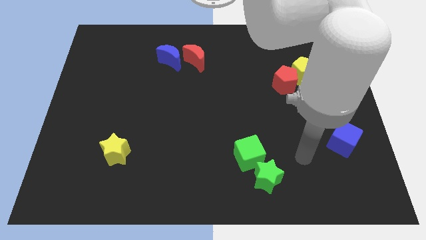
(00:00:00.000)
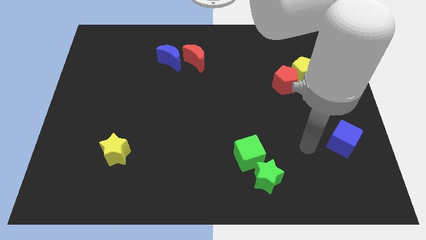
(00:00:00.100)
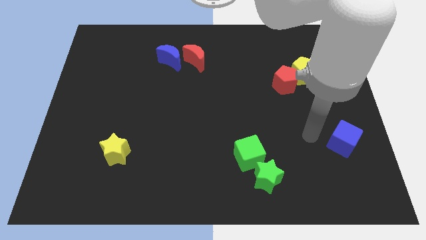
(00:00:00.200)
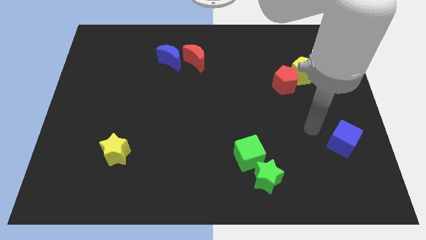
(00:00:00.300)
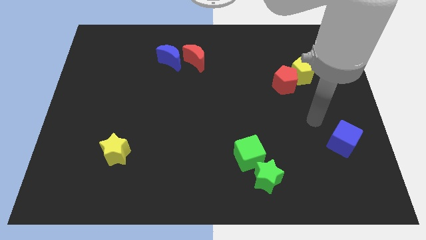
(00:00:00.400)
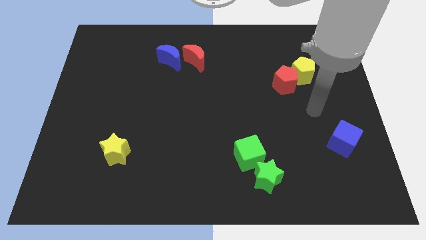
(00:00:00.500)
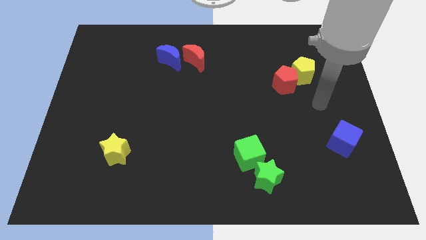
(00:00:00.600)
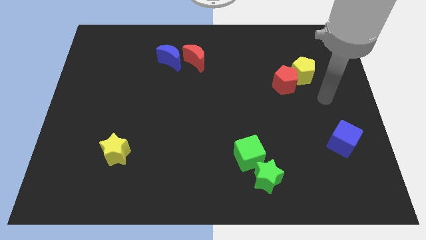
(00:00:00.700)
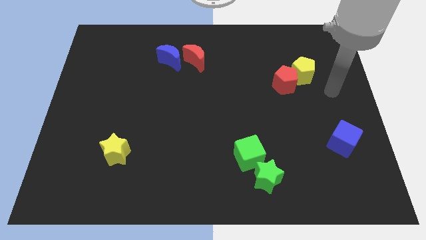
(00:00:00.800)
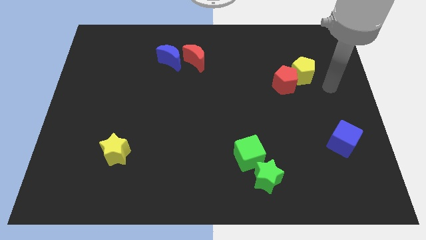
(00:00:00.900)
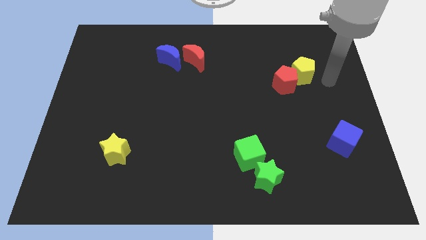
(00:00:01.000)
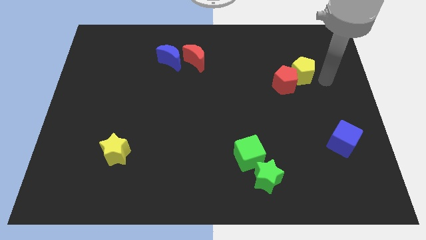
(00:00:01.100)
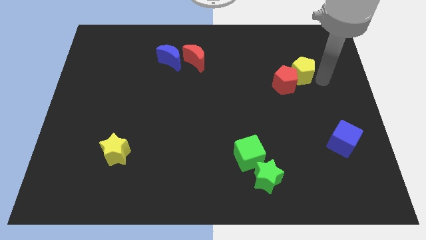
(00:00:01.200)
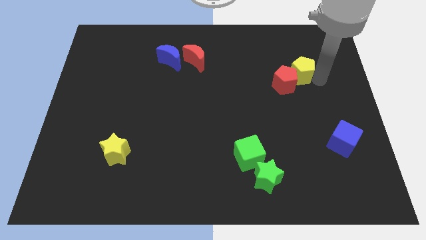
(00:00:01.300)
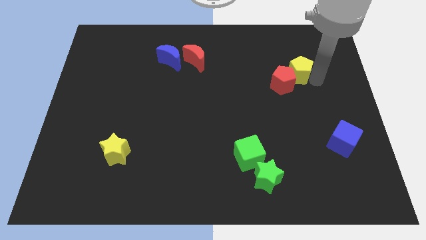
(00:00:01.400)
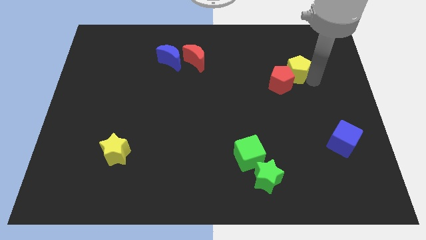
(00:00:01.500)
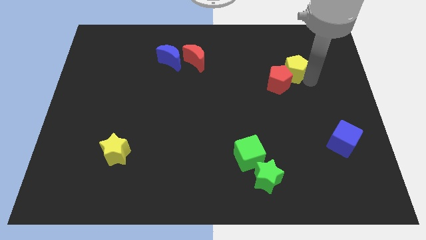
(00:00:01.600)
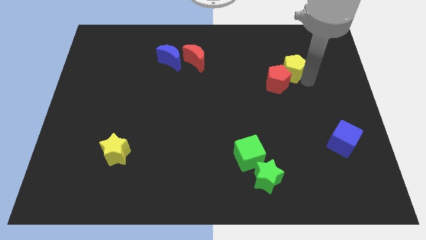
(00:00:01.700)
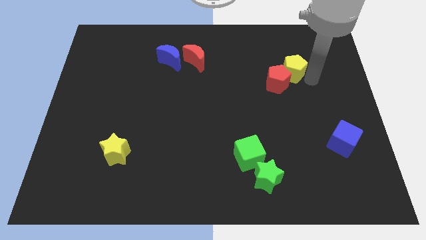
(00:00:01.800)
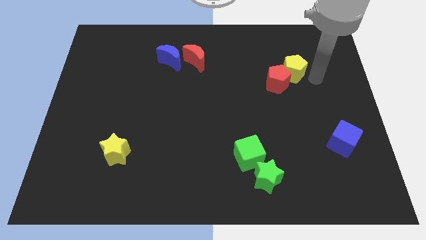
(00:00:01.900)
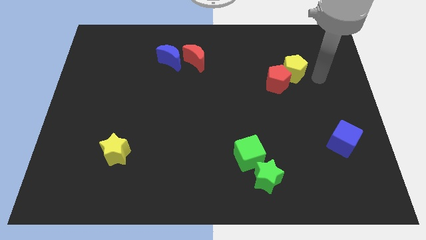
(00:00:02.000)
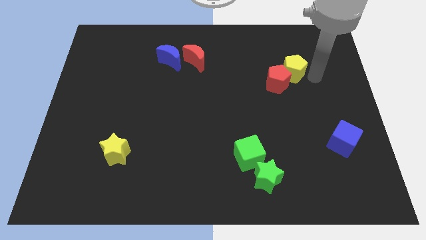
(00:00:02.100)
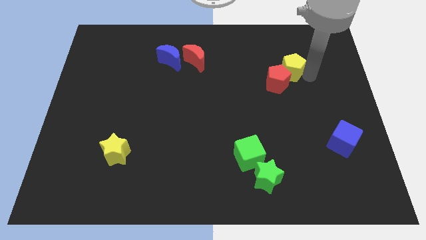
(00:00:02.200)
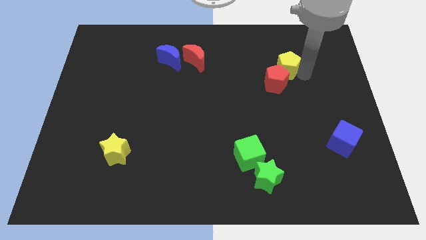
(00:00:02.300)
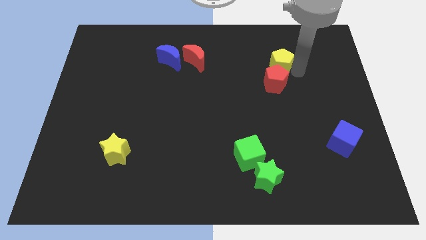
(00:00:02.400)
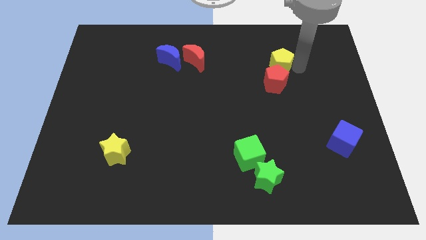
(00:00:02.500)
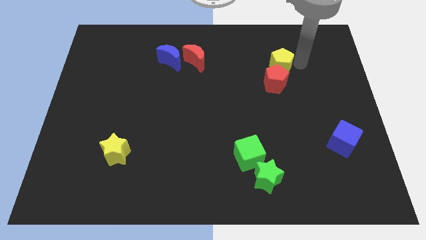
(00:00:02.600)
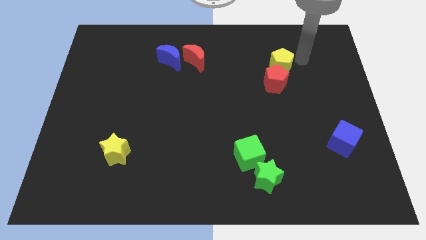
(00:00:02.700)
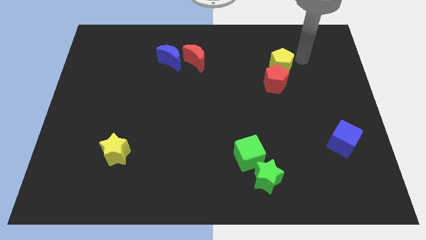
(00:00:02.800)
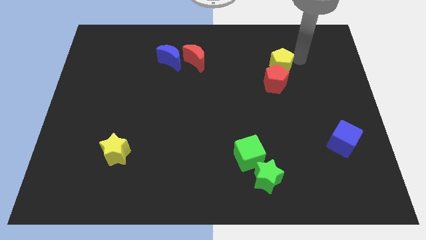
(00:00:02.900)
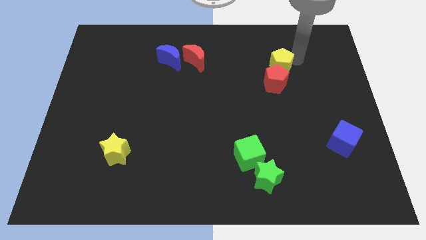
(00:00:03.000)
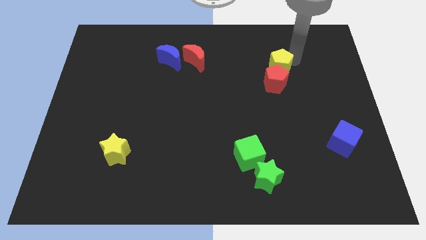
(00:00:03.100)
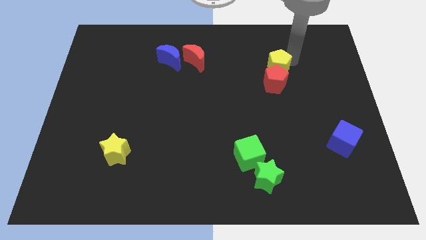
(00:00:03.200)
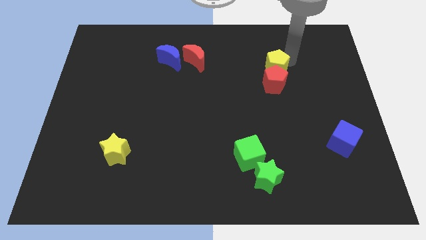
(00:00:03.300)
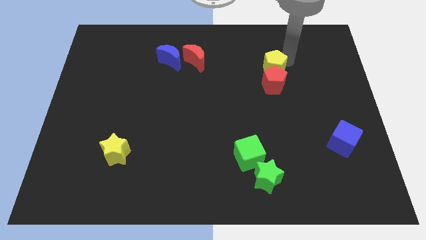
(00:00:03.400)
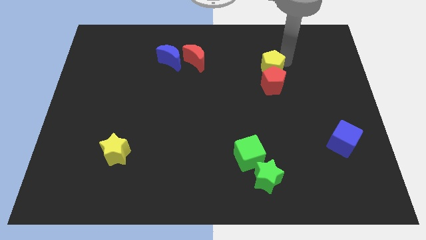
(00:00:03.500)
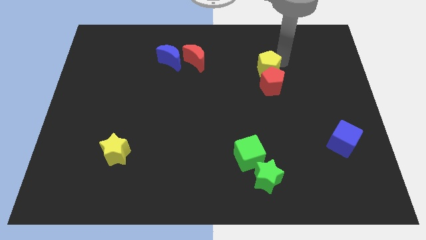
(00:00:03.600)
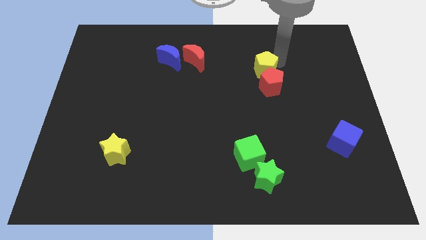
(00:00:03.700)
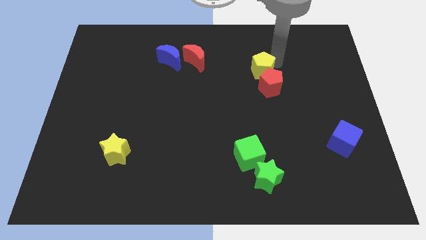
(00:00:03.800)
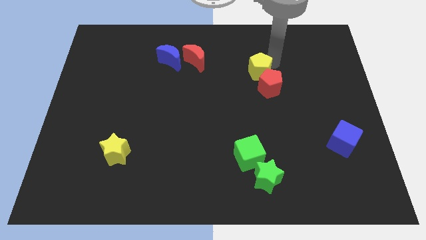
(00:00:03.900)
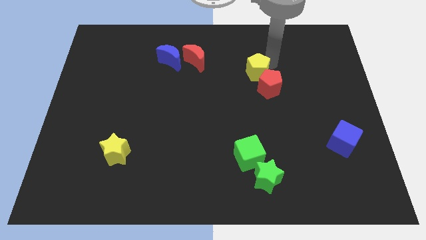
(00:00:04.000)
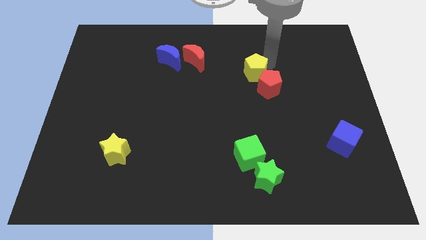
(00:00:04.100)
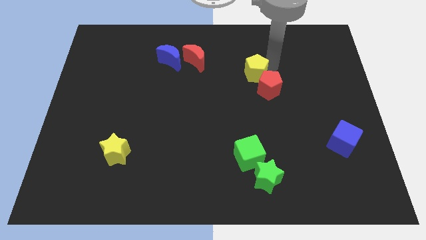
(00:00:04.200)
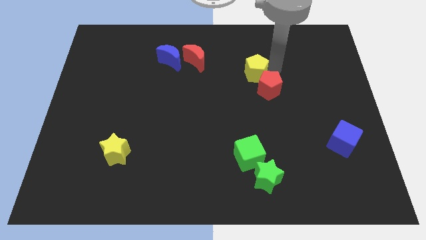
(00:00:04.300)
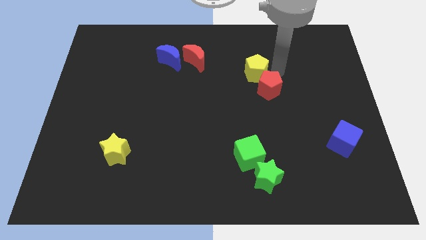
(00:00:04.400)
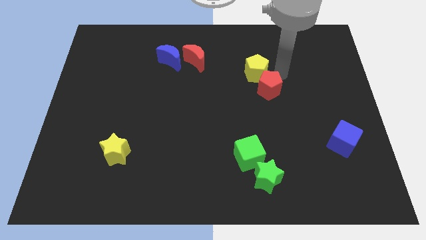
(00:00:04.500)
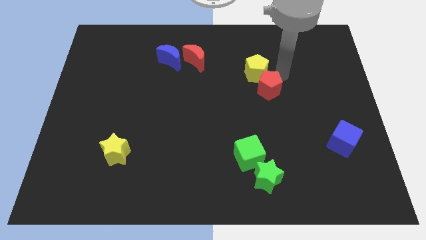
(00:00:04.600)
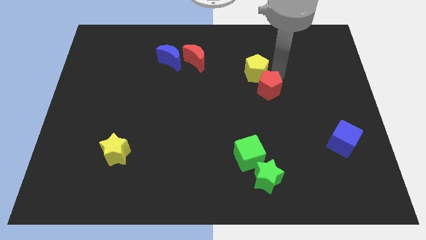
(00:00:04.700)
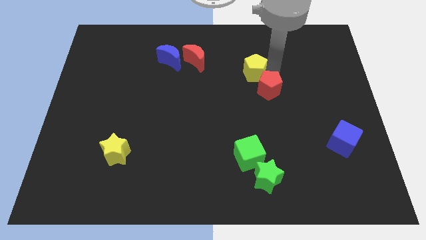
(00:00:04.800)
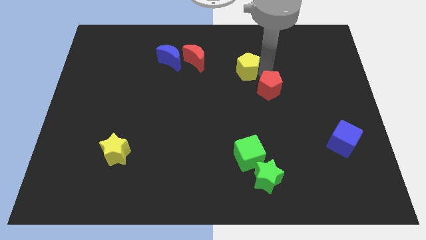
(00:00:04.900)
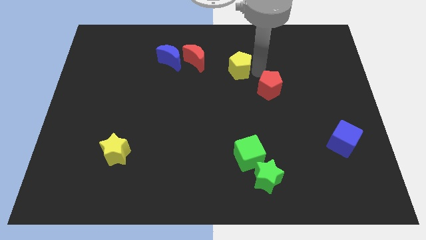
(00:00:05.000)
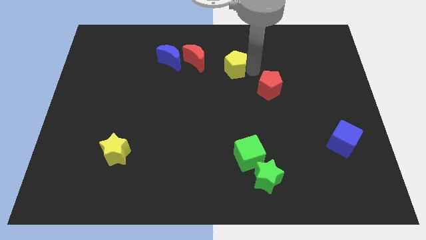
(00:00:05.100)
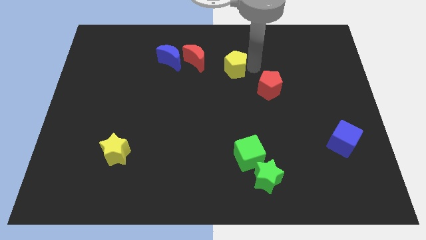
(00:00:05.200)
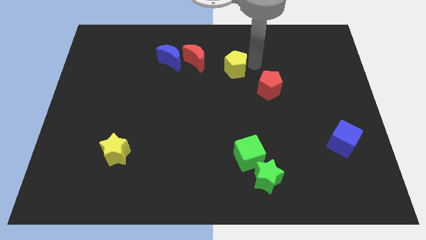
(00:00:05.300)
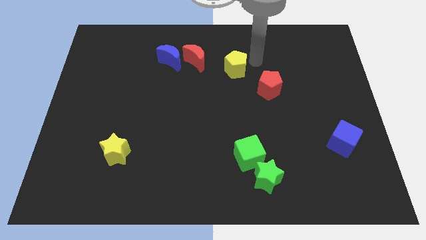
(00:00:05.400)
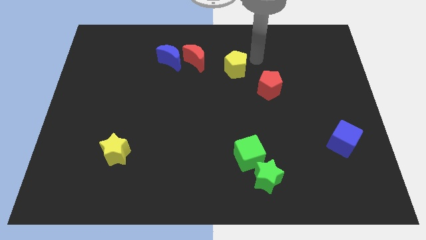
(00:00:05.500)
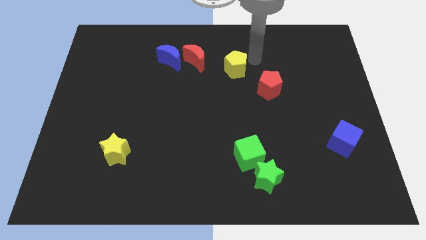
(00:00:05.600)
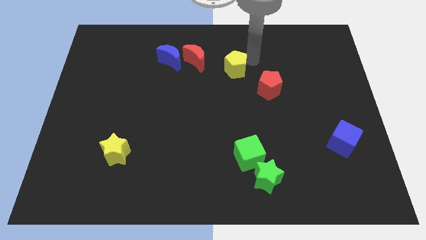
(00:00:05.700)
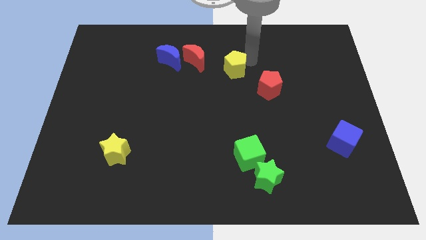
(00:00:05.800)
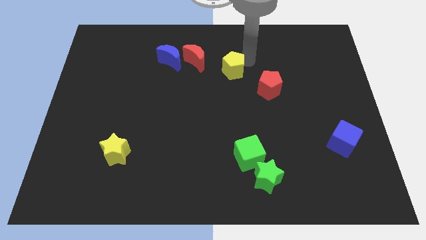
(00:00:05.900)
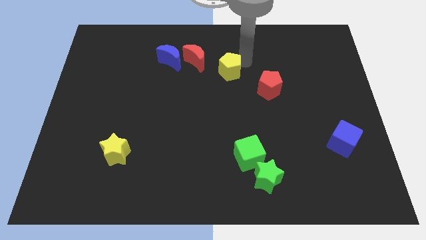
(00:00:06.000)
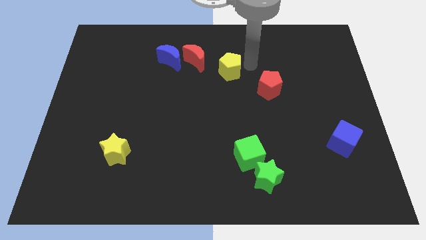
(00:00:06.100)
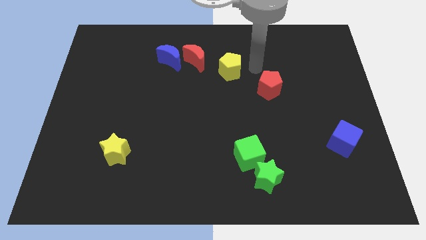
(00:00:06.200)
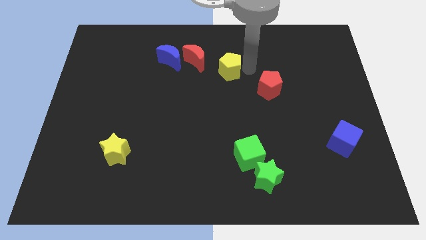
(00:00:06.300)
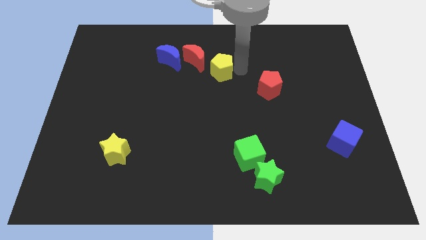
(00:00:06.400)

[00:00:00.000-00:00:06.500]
move the yellow pentagon to the left

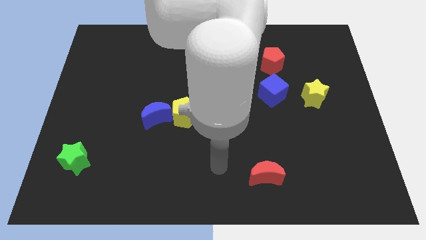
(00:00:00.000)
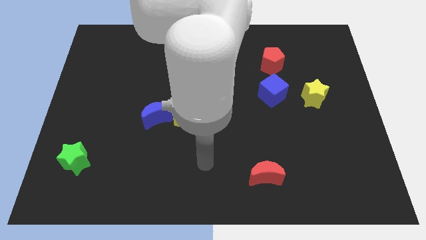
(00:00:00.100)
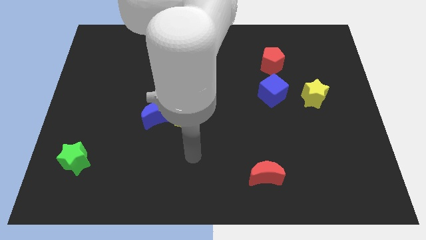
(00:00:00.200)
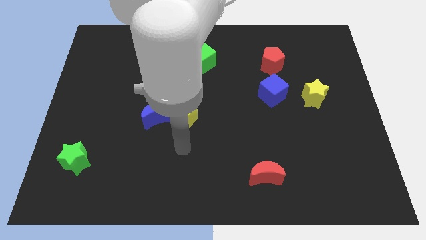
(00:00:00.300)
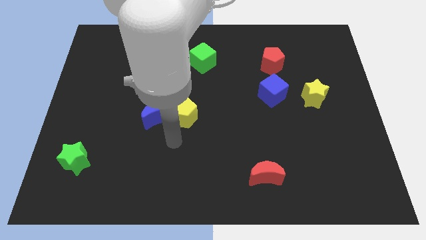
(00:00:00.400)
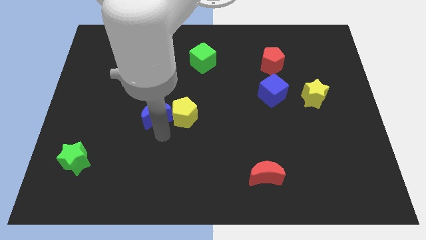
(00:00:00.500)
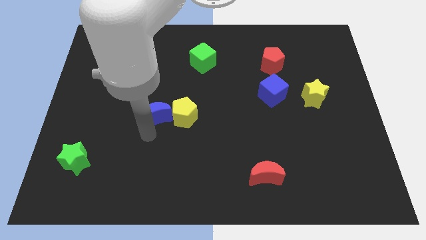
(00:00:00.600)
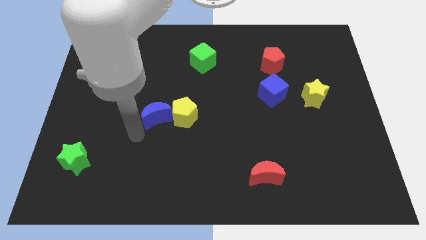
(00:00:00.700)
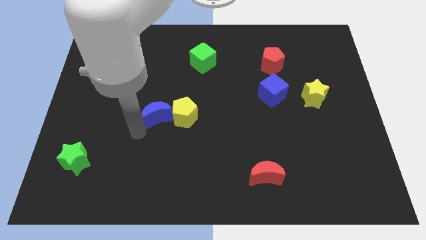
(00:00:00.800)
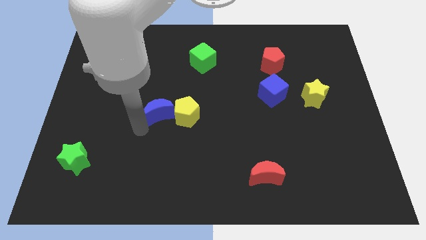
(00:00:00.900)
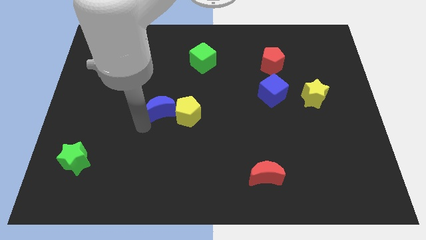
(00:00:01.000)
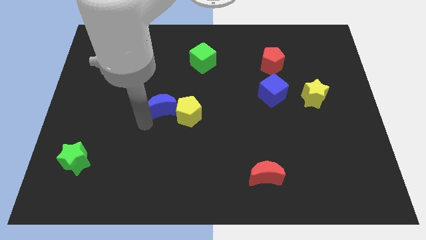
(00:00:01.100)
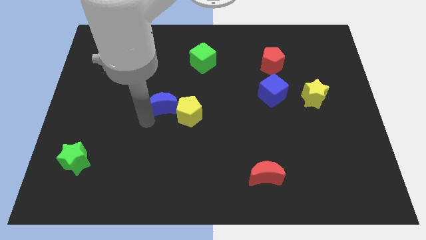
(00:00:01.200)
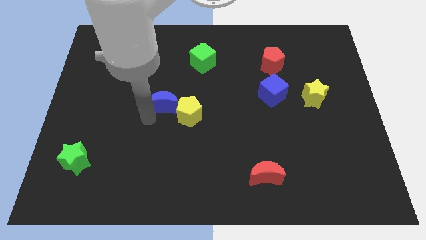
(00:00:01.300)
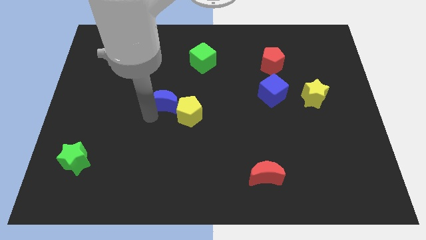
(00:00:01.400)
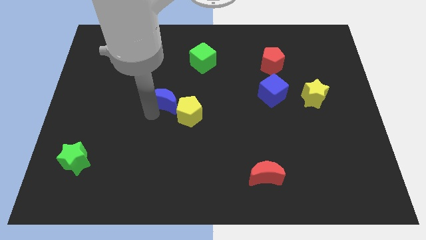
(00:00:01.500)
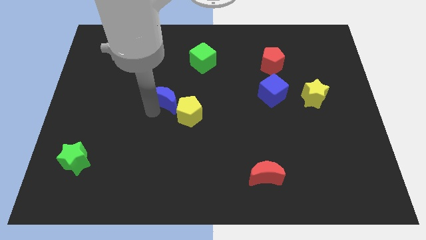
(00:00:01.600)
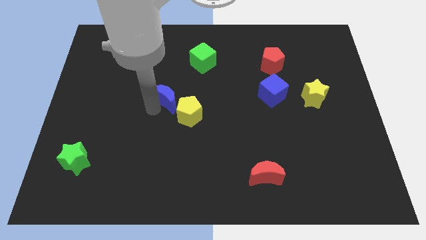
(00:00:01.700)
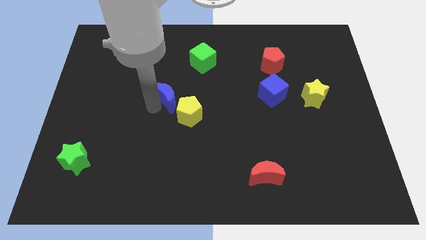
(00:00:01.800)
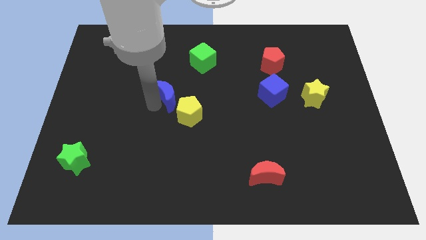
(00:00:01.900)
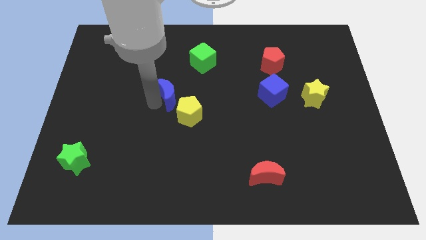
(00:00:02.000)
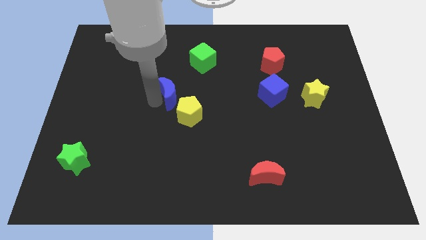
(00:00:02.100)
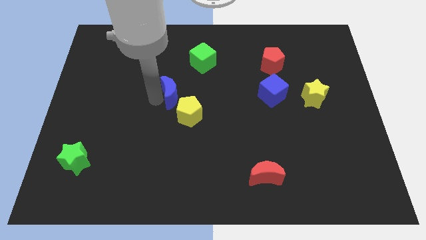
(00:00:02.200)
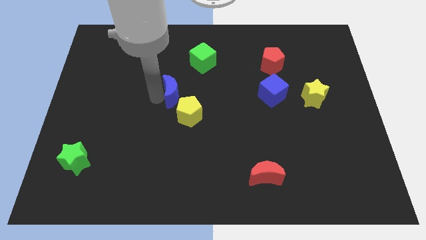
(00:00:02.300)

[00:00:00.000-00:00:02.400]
slide the blue moon diagonally upwards and right a bit
